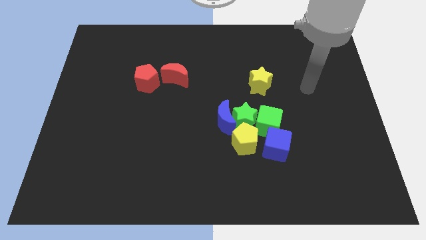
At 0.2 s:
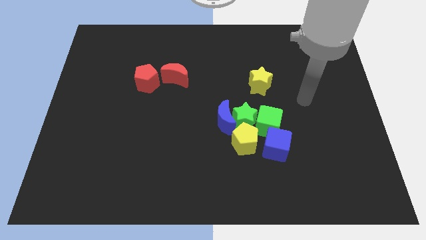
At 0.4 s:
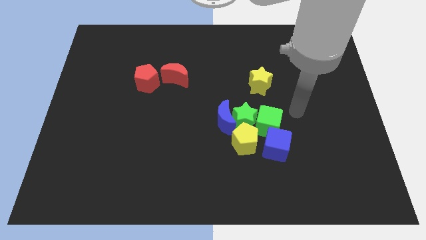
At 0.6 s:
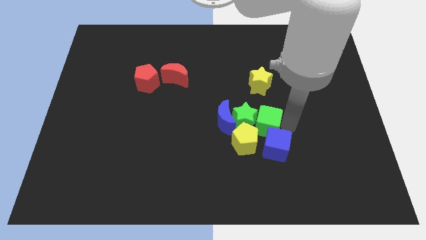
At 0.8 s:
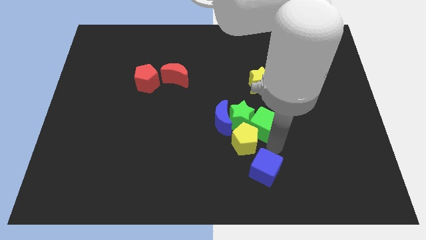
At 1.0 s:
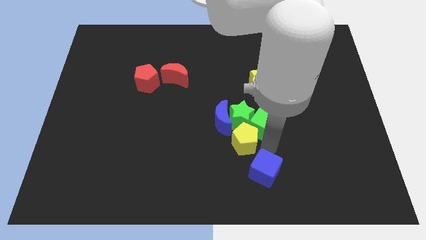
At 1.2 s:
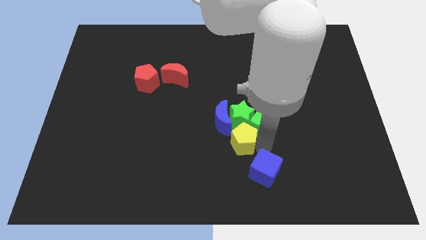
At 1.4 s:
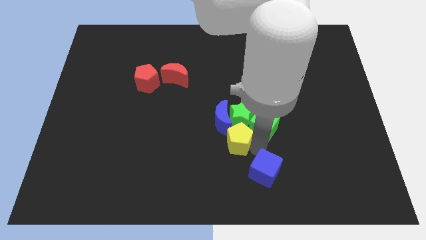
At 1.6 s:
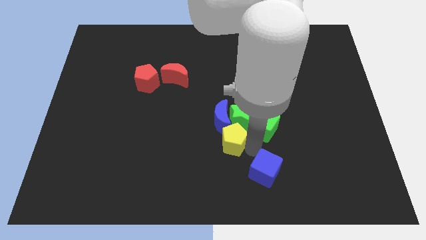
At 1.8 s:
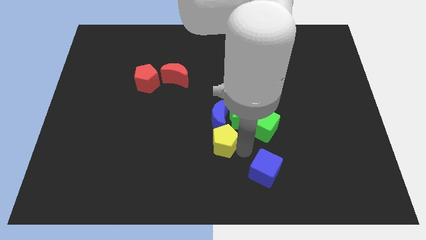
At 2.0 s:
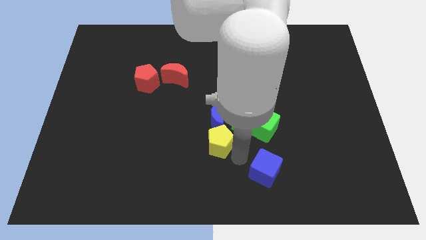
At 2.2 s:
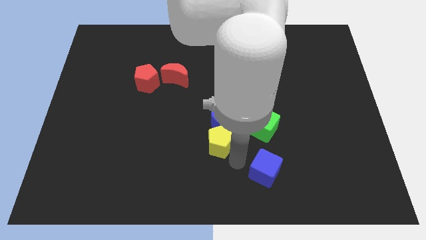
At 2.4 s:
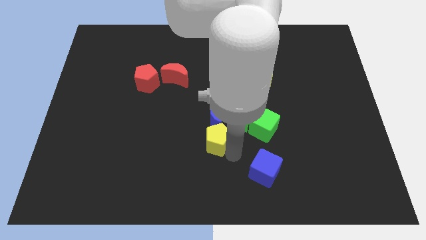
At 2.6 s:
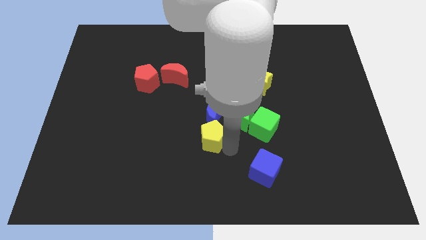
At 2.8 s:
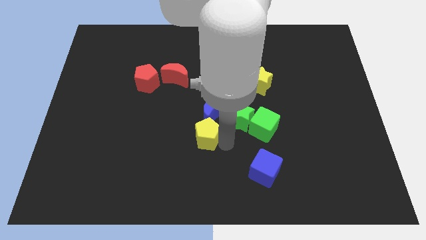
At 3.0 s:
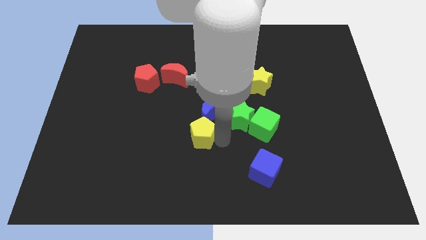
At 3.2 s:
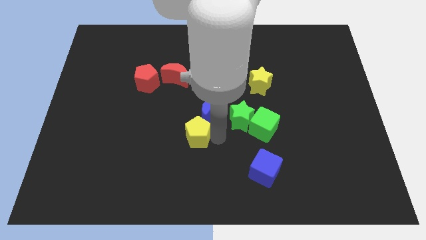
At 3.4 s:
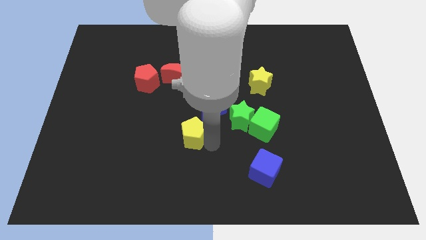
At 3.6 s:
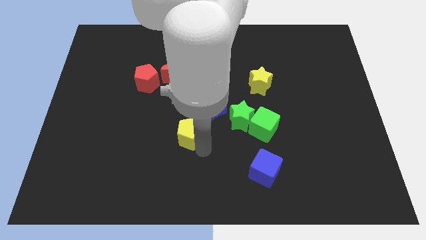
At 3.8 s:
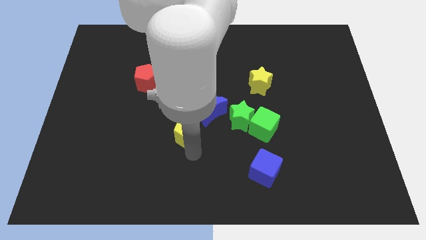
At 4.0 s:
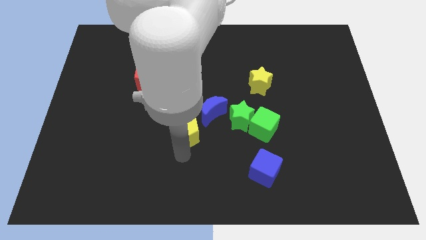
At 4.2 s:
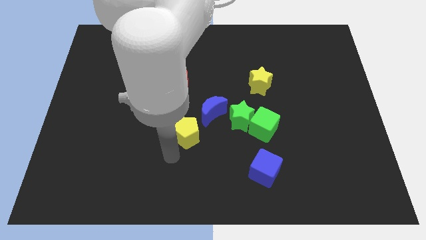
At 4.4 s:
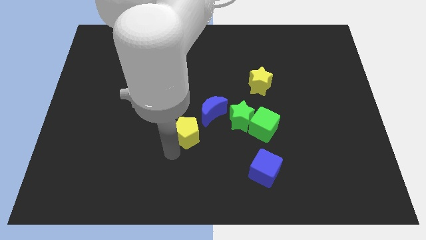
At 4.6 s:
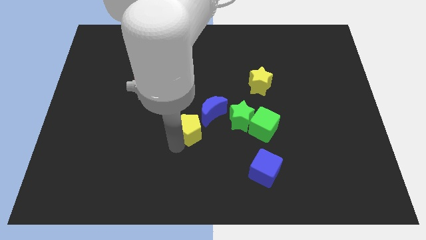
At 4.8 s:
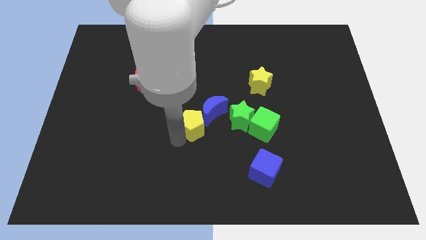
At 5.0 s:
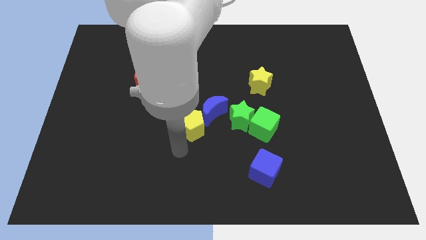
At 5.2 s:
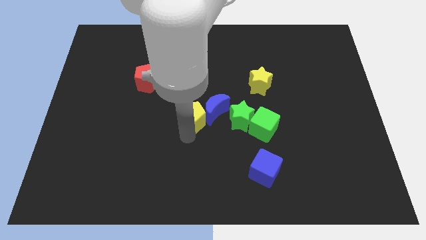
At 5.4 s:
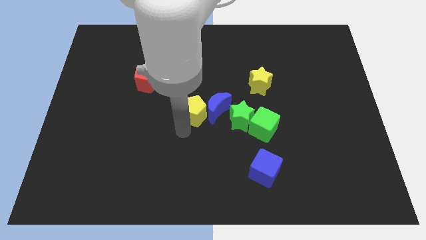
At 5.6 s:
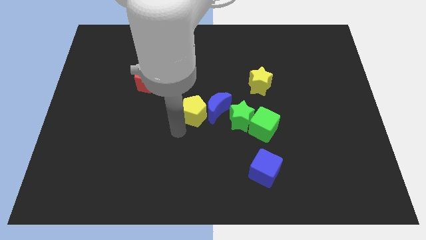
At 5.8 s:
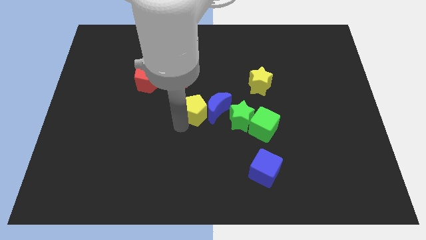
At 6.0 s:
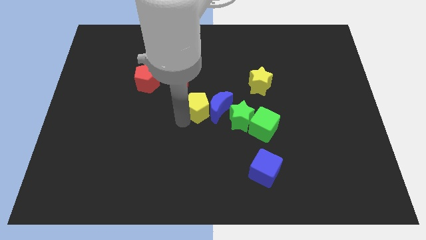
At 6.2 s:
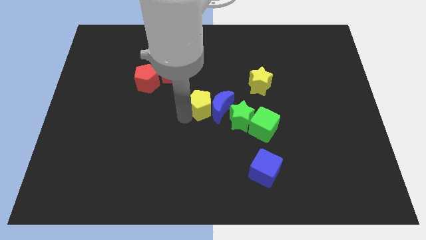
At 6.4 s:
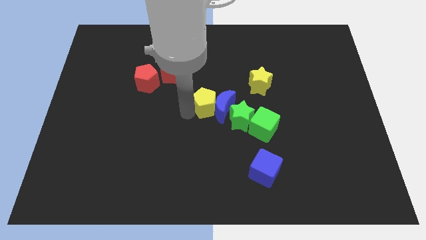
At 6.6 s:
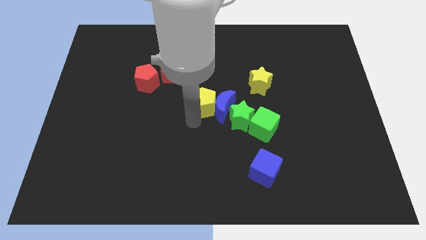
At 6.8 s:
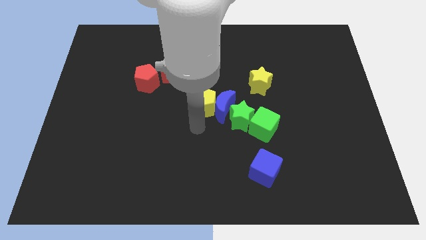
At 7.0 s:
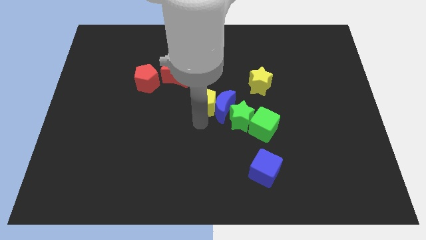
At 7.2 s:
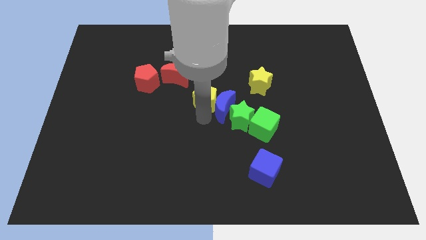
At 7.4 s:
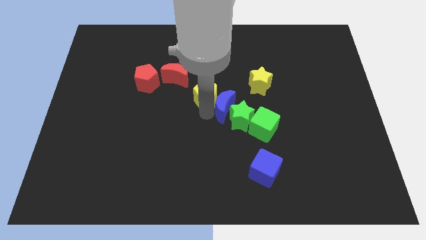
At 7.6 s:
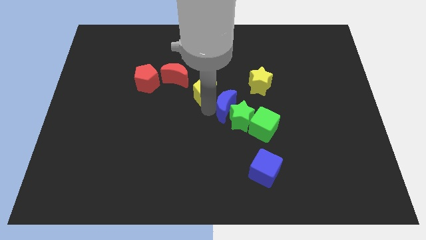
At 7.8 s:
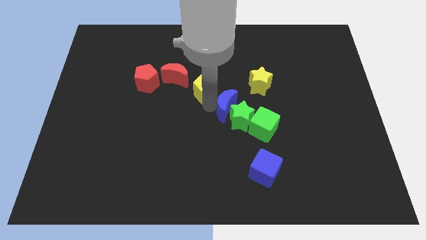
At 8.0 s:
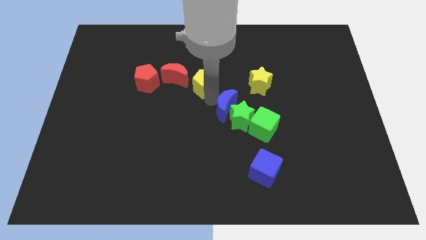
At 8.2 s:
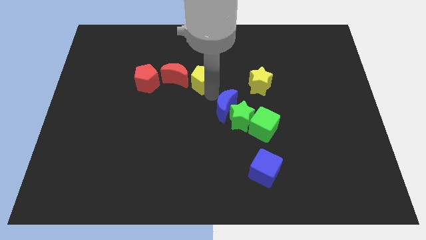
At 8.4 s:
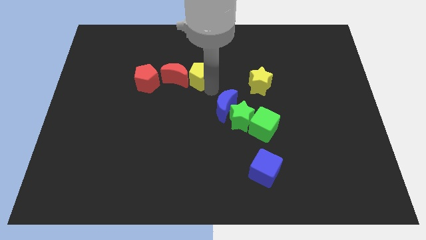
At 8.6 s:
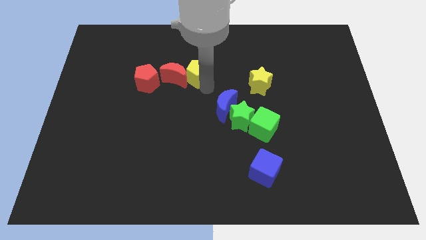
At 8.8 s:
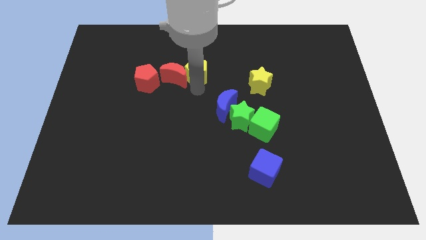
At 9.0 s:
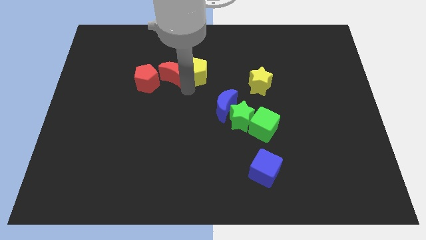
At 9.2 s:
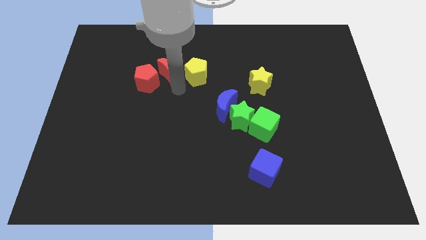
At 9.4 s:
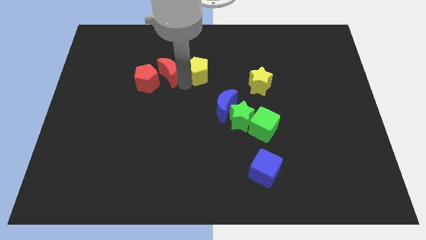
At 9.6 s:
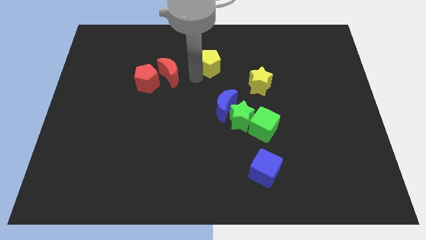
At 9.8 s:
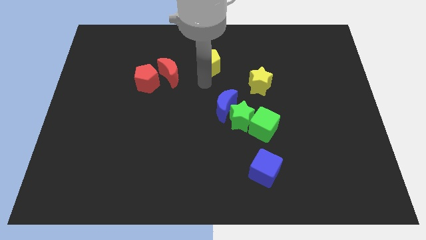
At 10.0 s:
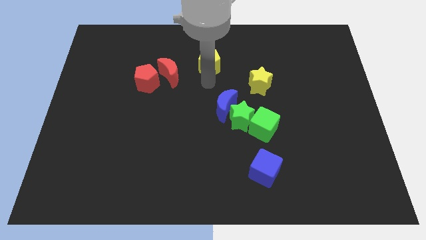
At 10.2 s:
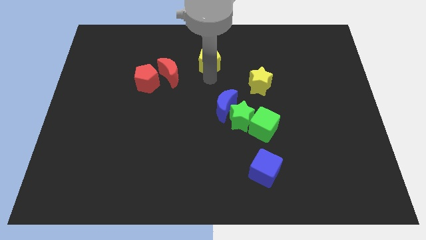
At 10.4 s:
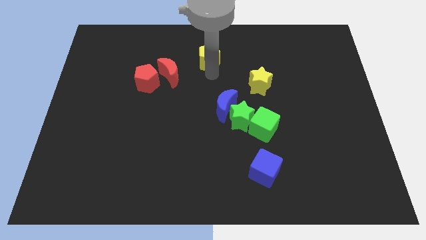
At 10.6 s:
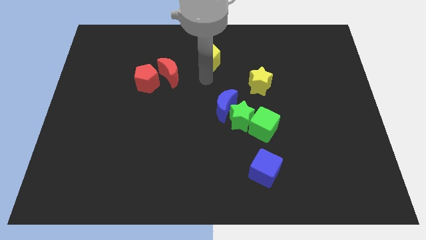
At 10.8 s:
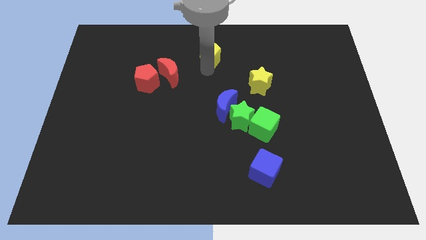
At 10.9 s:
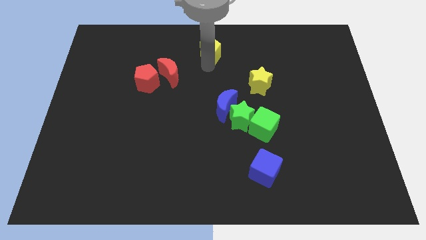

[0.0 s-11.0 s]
push the yellow pentagon to the top
